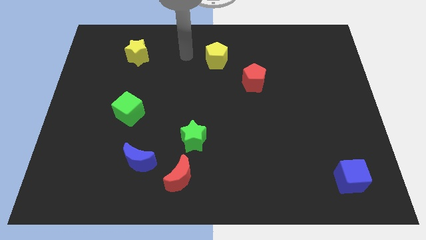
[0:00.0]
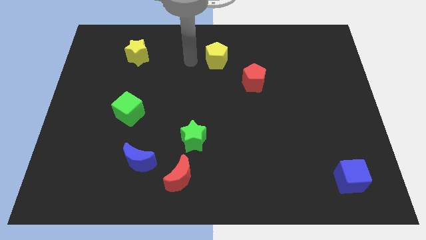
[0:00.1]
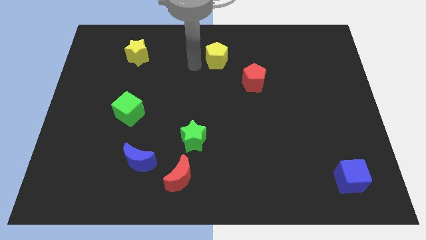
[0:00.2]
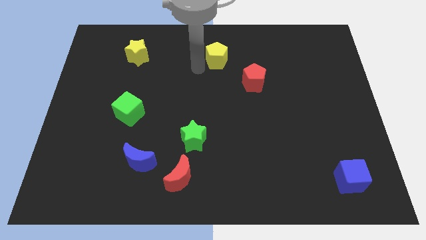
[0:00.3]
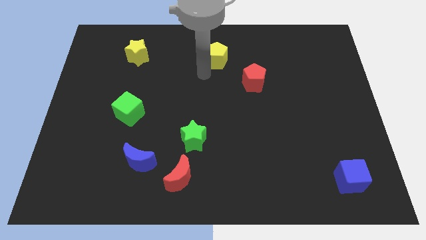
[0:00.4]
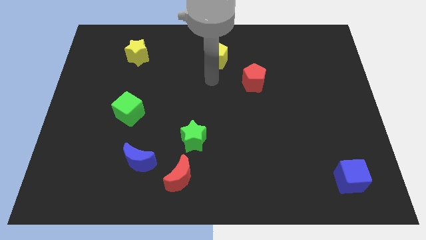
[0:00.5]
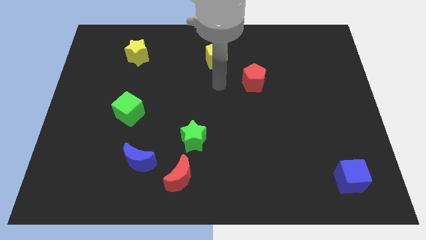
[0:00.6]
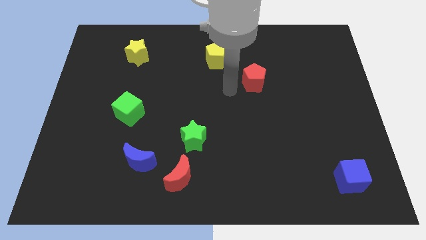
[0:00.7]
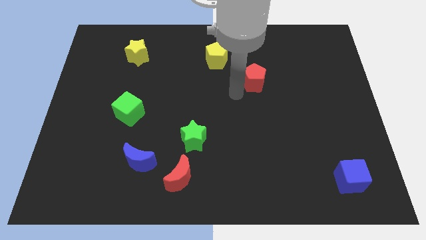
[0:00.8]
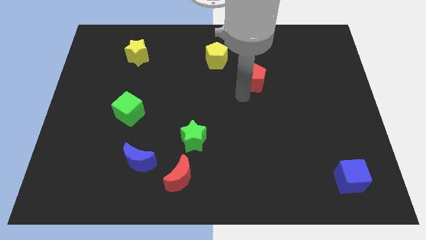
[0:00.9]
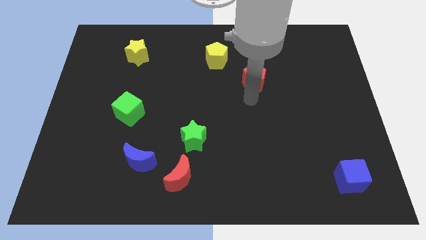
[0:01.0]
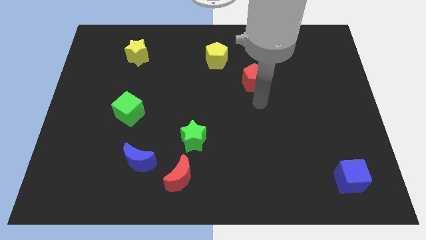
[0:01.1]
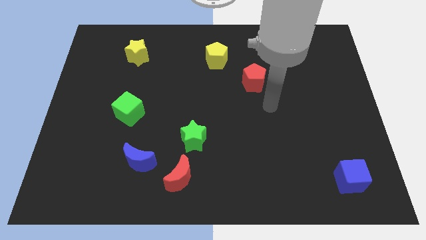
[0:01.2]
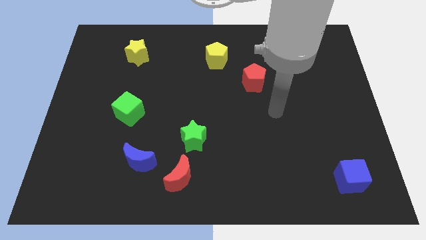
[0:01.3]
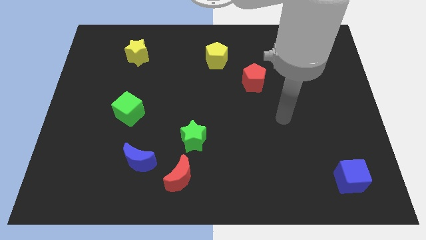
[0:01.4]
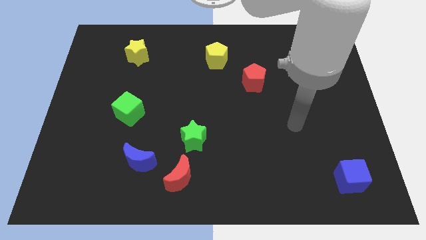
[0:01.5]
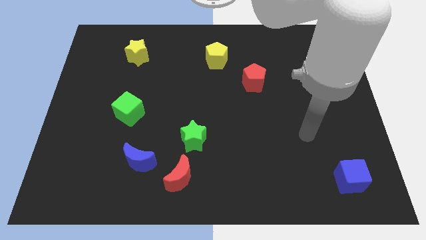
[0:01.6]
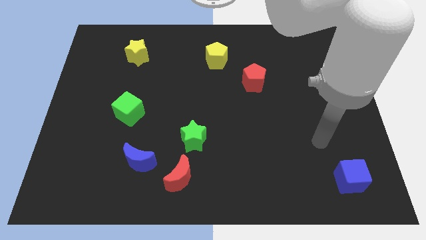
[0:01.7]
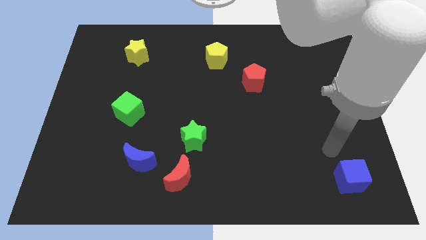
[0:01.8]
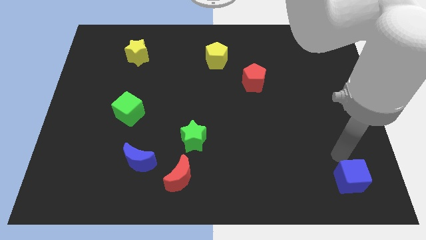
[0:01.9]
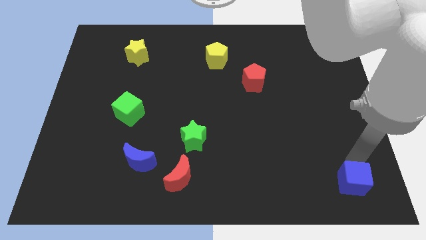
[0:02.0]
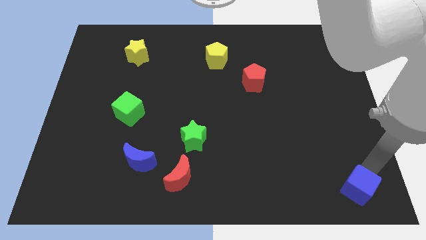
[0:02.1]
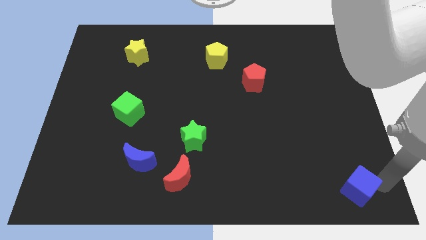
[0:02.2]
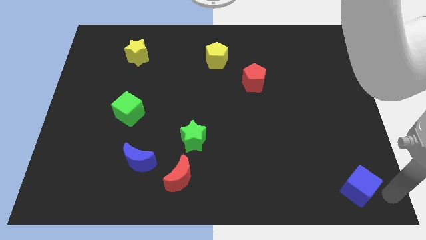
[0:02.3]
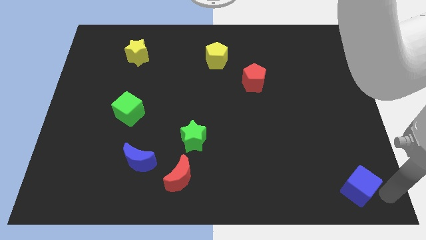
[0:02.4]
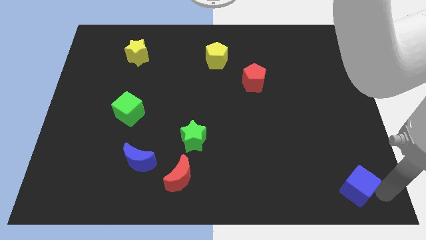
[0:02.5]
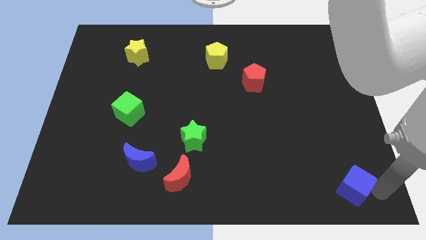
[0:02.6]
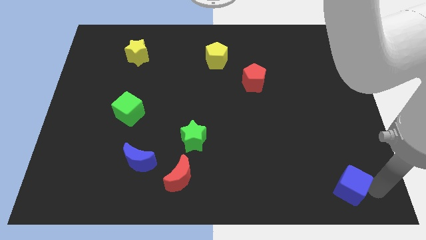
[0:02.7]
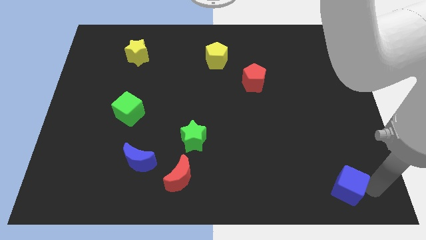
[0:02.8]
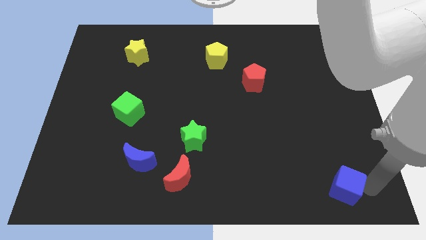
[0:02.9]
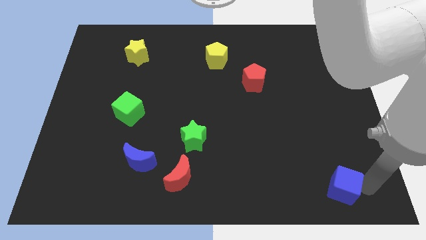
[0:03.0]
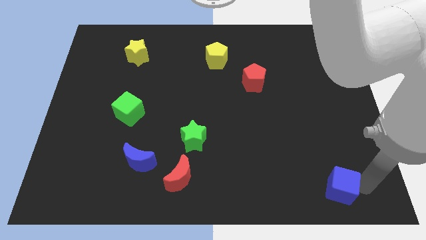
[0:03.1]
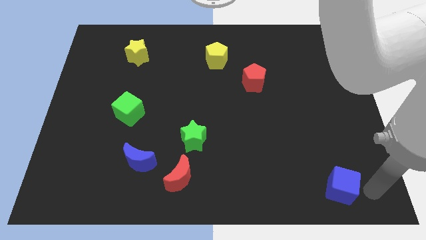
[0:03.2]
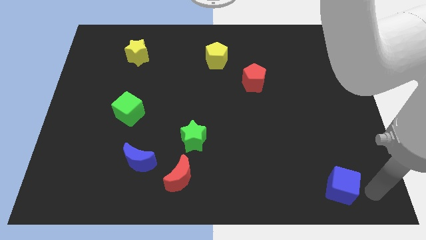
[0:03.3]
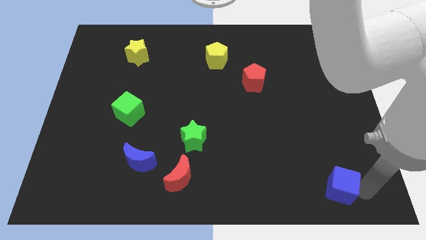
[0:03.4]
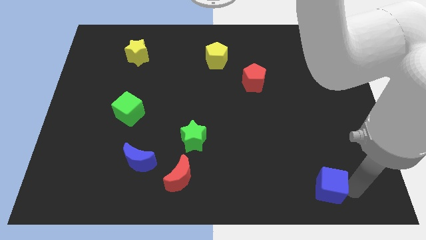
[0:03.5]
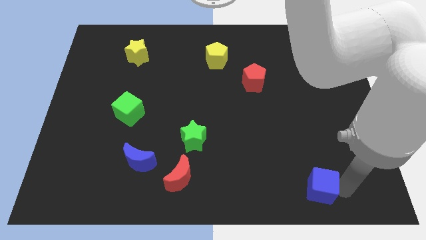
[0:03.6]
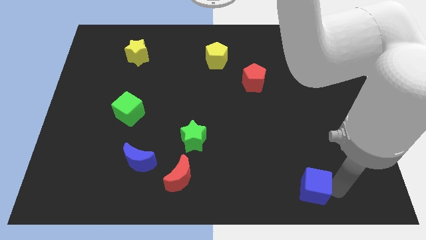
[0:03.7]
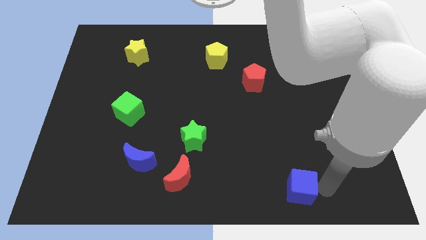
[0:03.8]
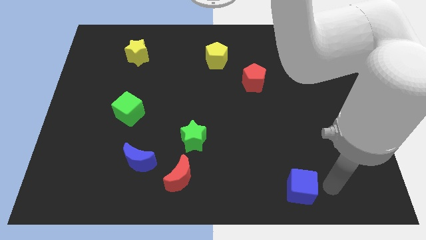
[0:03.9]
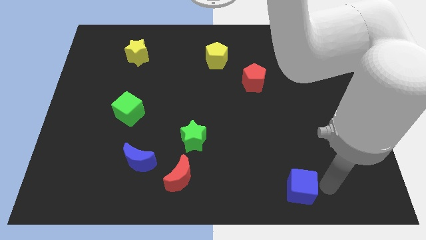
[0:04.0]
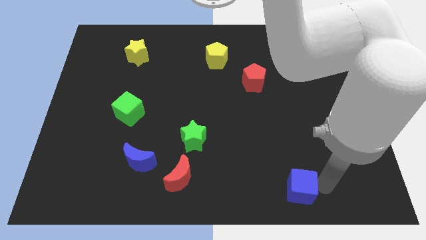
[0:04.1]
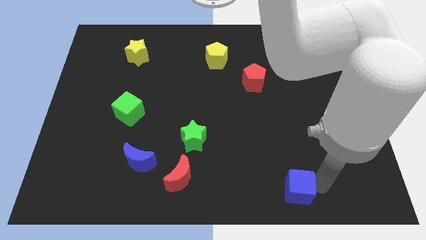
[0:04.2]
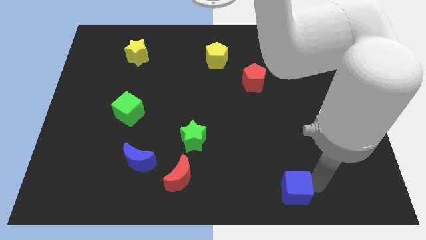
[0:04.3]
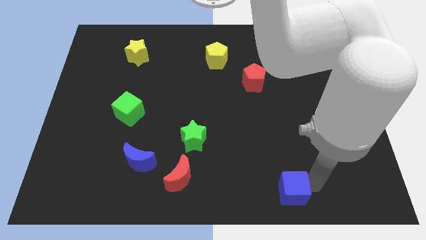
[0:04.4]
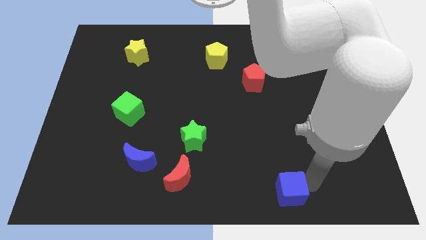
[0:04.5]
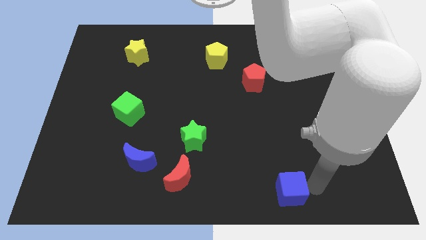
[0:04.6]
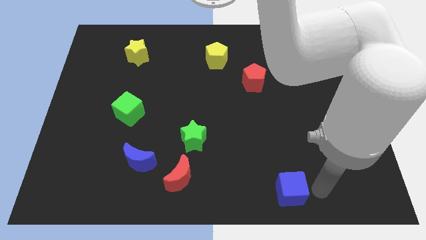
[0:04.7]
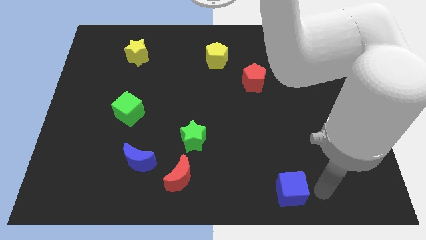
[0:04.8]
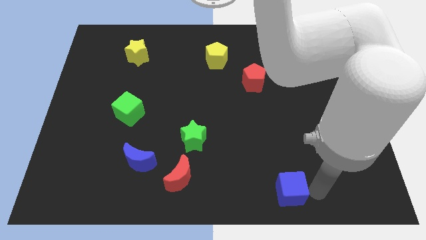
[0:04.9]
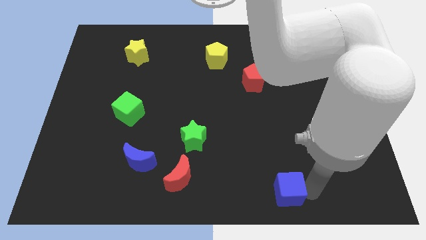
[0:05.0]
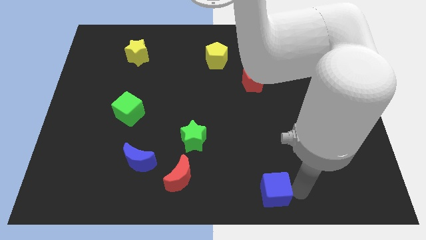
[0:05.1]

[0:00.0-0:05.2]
put the blue cube to the bottom side

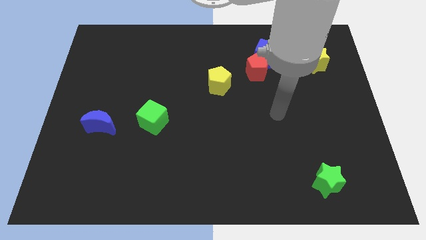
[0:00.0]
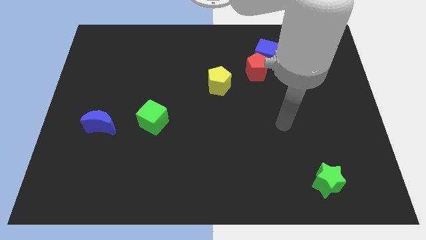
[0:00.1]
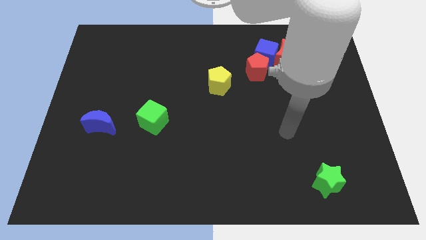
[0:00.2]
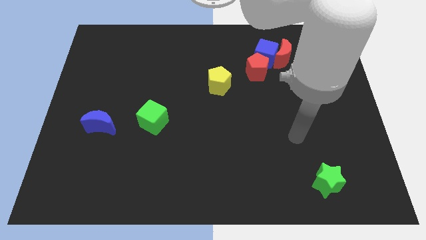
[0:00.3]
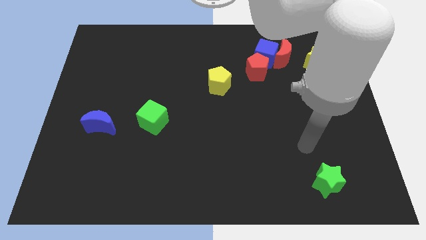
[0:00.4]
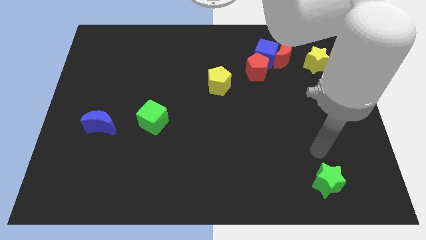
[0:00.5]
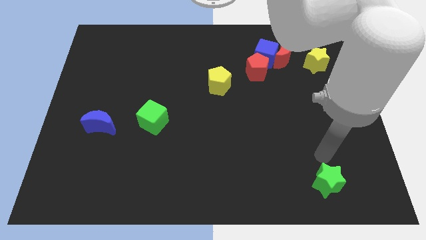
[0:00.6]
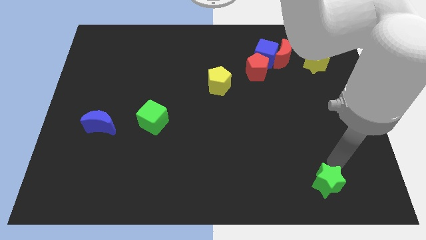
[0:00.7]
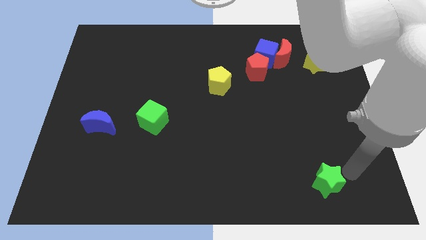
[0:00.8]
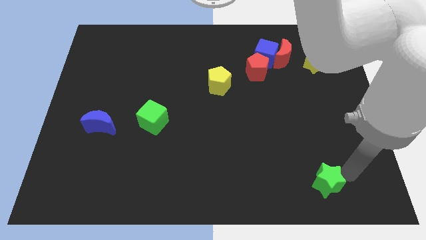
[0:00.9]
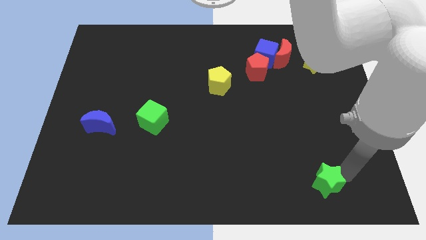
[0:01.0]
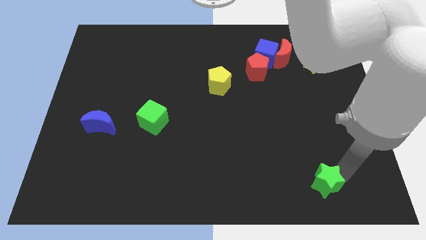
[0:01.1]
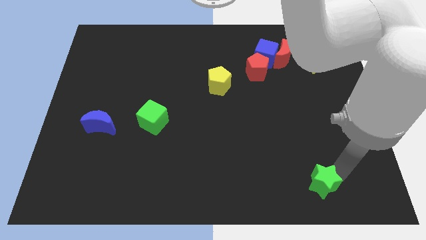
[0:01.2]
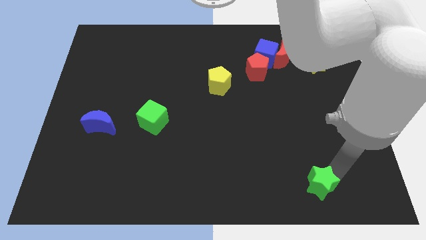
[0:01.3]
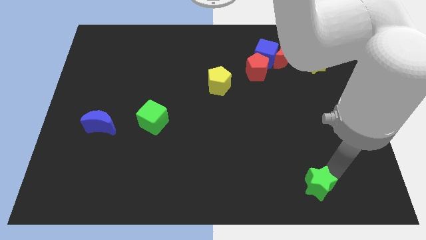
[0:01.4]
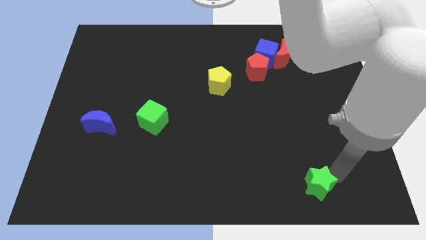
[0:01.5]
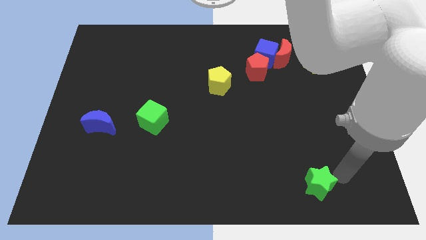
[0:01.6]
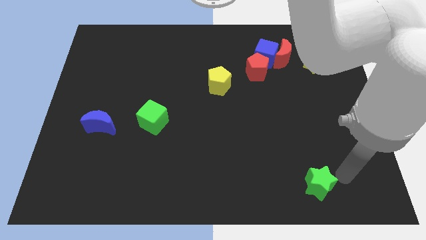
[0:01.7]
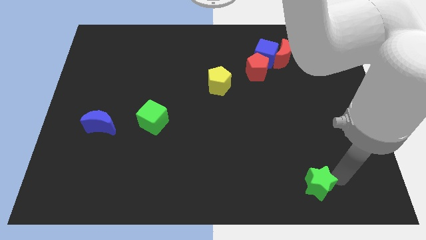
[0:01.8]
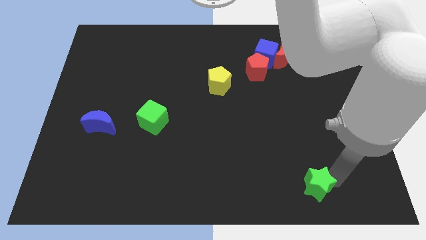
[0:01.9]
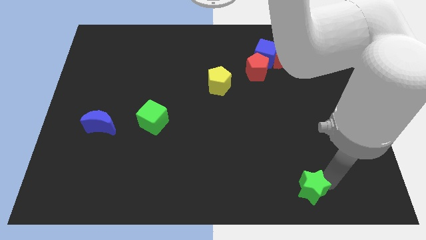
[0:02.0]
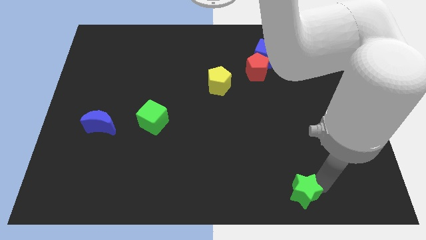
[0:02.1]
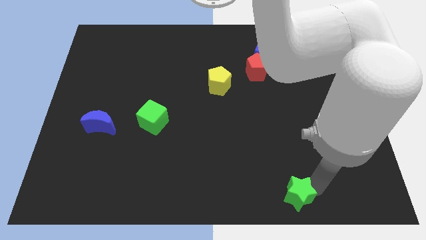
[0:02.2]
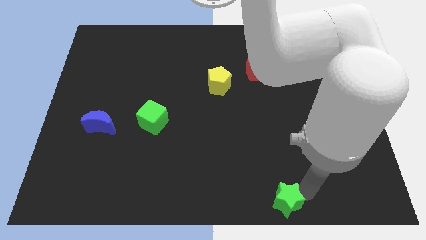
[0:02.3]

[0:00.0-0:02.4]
slide the green star to the bottom side
